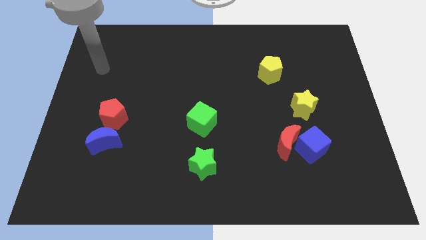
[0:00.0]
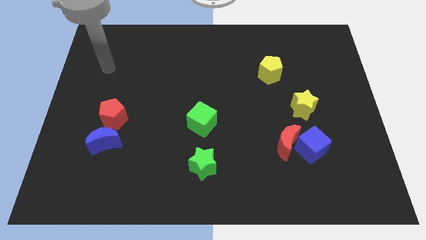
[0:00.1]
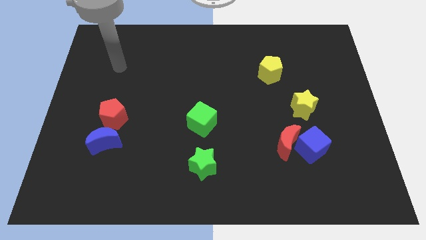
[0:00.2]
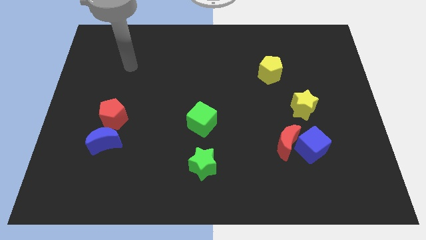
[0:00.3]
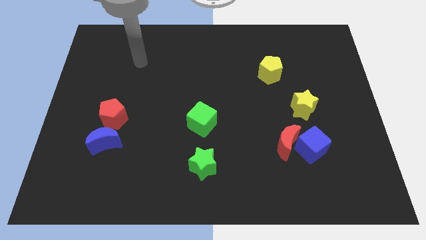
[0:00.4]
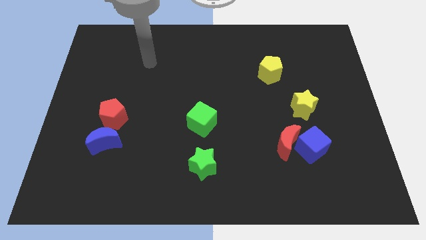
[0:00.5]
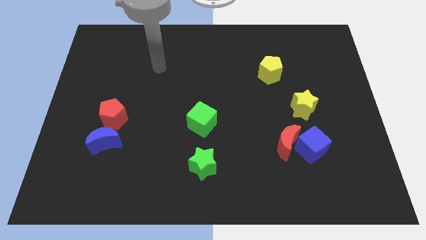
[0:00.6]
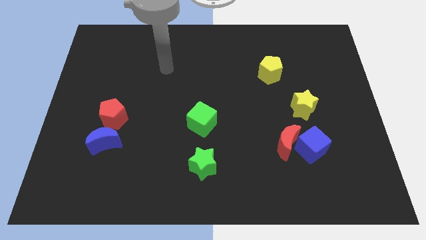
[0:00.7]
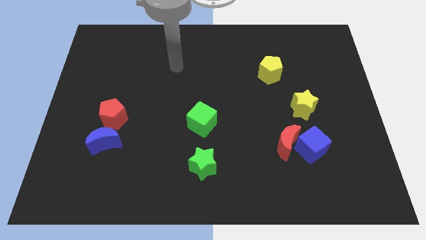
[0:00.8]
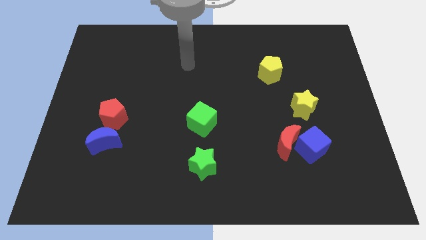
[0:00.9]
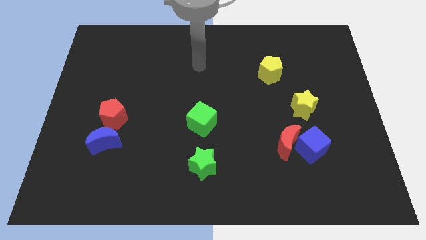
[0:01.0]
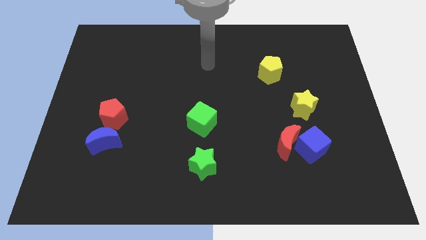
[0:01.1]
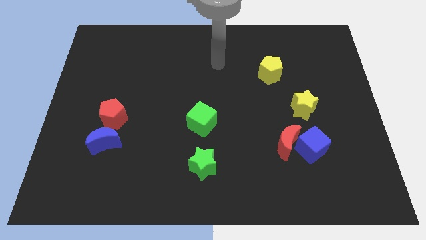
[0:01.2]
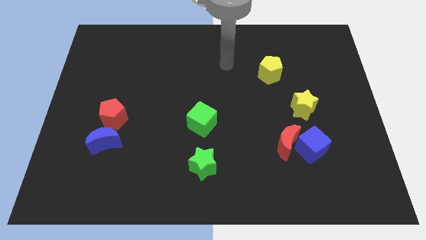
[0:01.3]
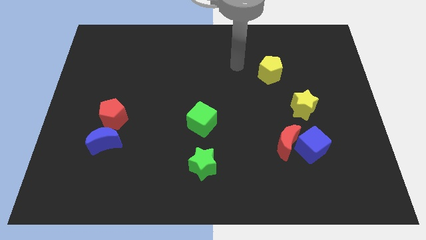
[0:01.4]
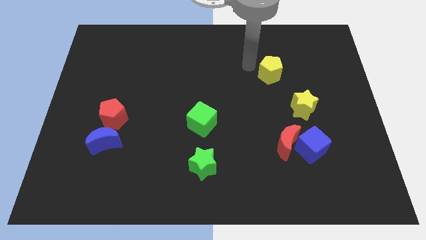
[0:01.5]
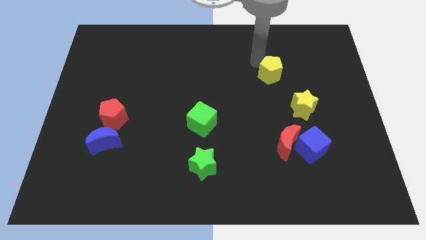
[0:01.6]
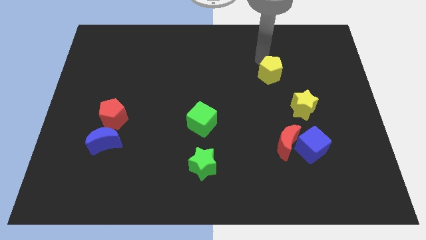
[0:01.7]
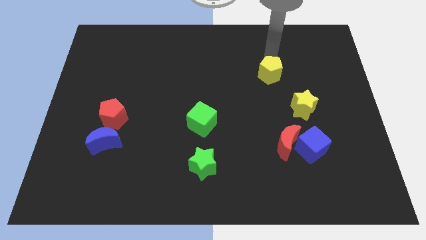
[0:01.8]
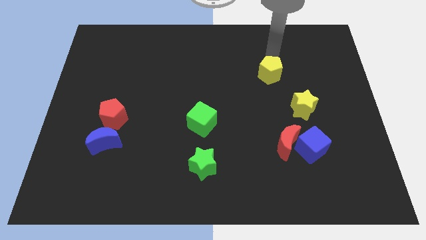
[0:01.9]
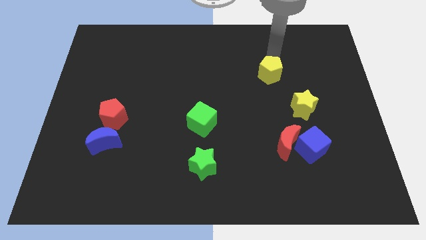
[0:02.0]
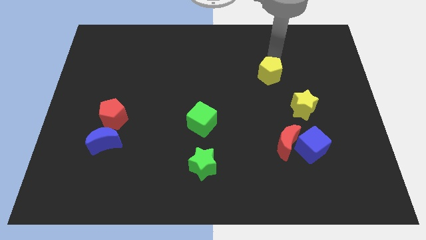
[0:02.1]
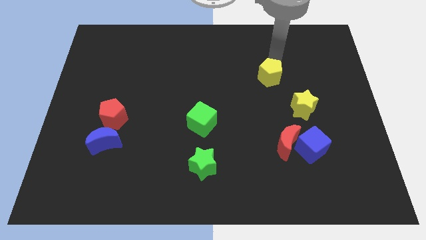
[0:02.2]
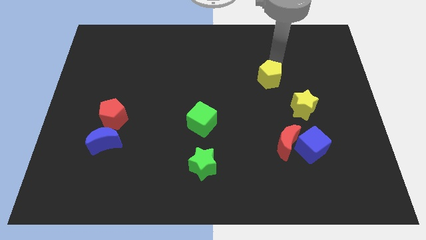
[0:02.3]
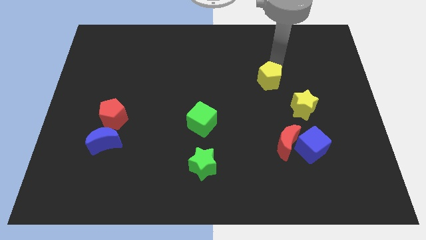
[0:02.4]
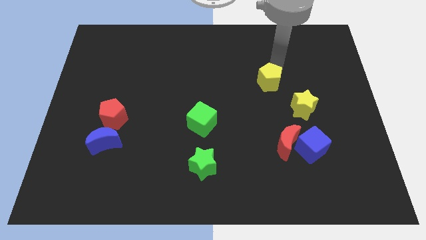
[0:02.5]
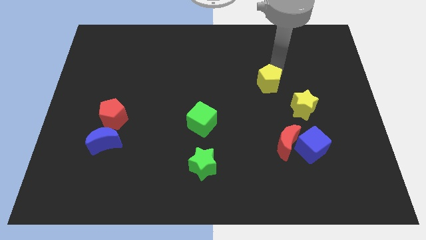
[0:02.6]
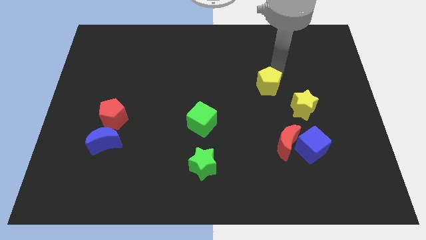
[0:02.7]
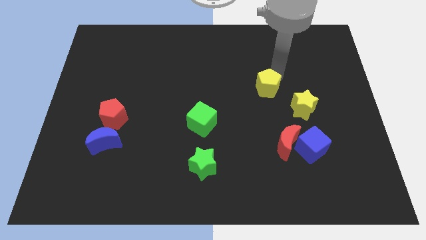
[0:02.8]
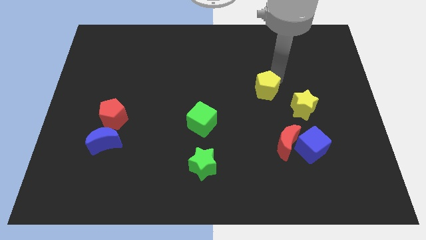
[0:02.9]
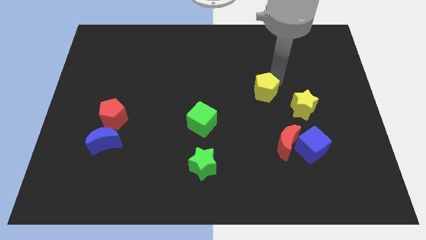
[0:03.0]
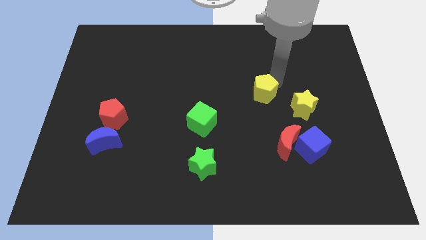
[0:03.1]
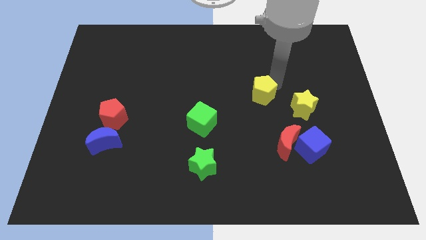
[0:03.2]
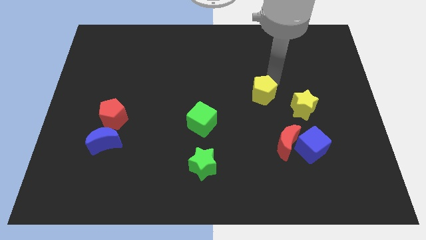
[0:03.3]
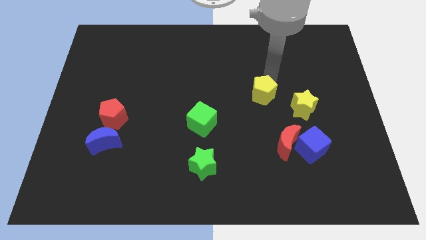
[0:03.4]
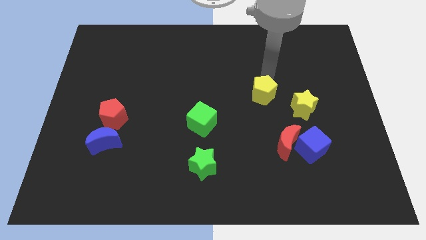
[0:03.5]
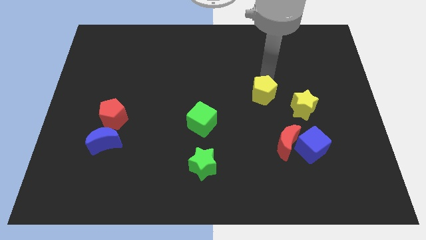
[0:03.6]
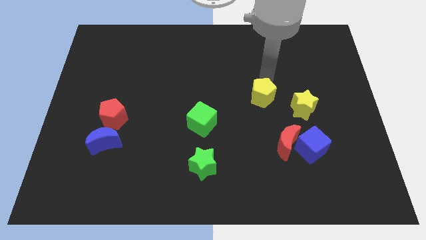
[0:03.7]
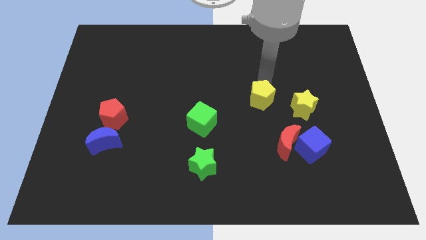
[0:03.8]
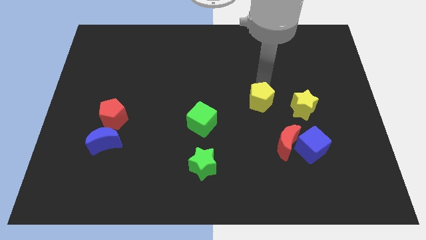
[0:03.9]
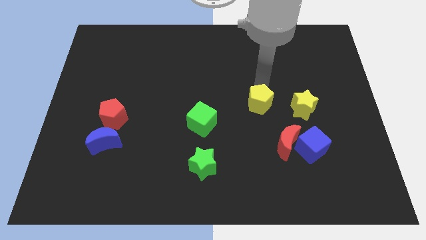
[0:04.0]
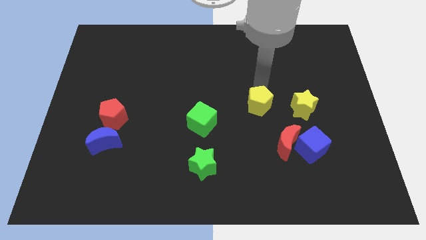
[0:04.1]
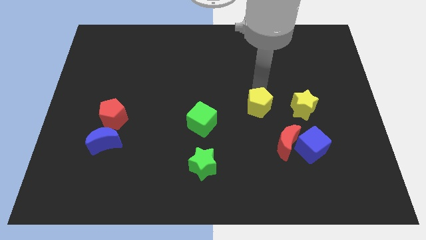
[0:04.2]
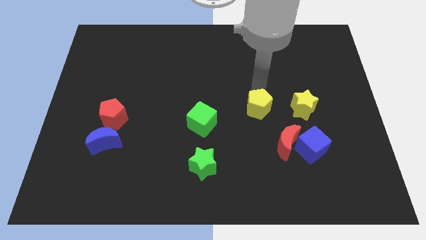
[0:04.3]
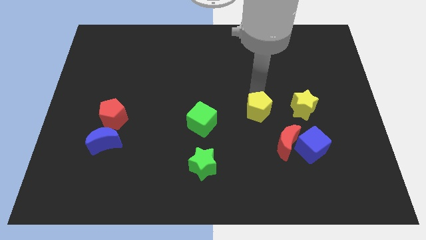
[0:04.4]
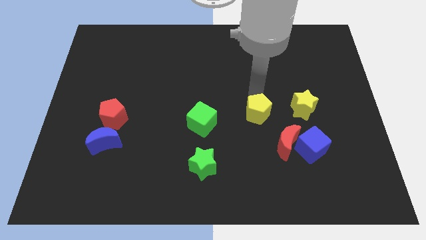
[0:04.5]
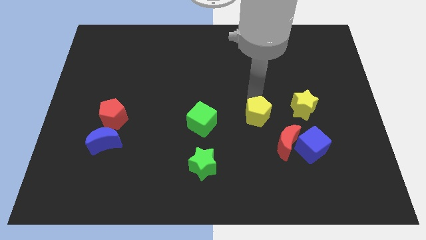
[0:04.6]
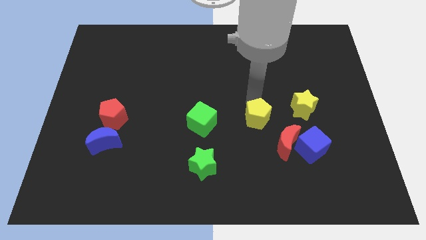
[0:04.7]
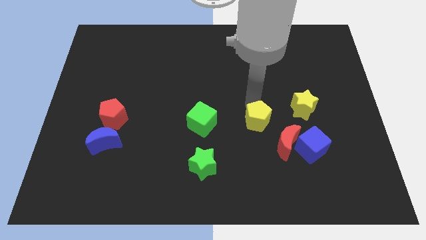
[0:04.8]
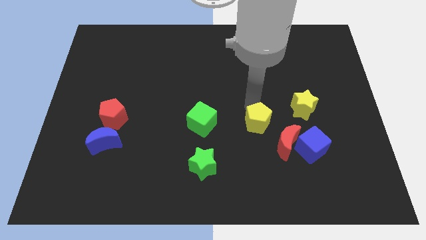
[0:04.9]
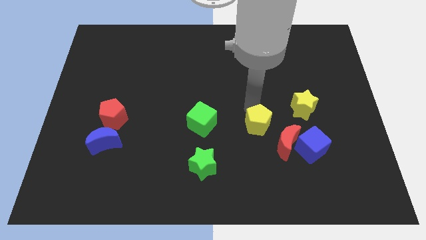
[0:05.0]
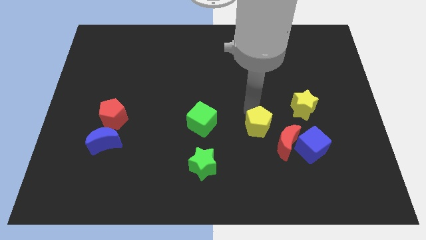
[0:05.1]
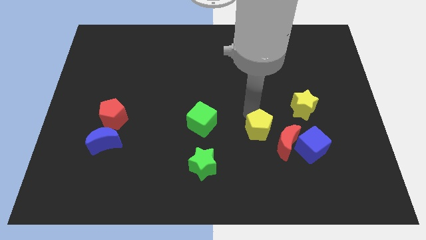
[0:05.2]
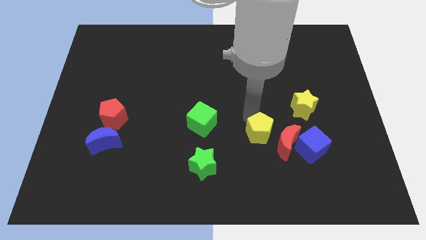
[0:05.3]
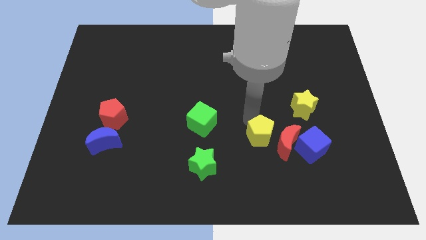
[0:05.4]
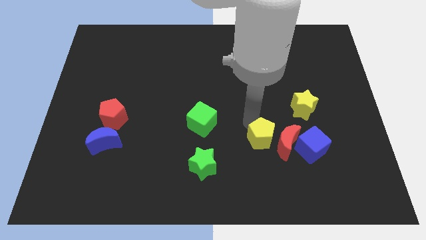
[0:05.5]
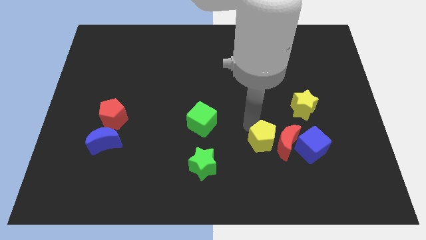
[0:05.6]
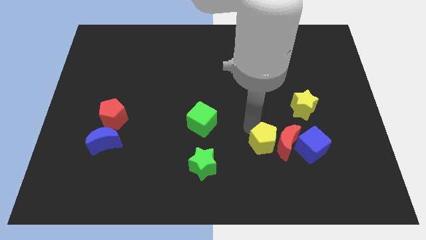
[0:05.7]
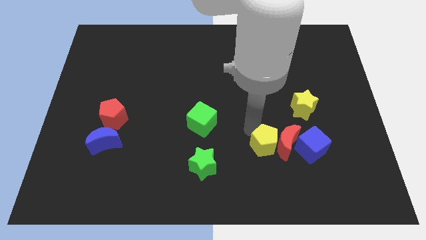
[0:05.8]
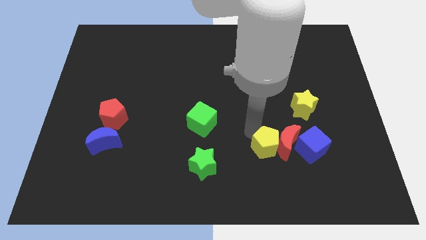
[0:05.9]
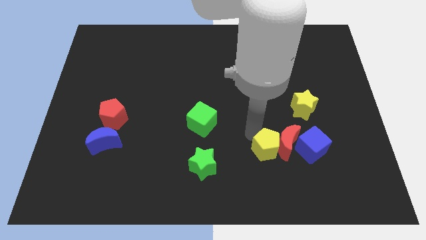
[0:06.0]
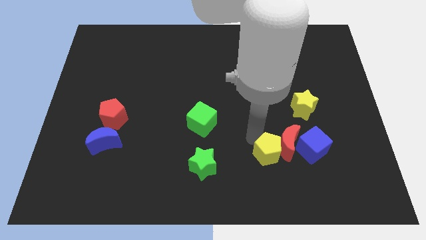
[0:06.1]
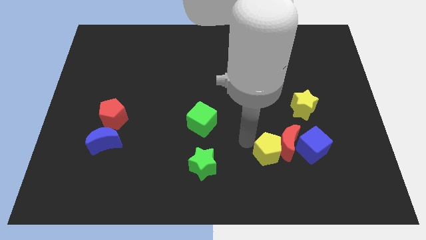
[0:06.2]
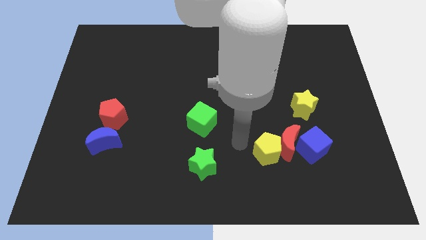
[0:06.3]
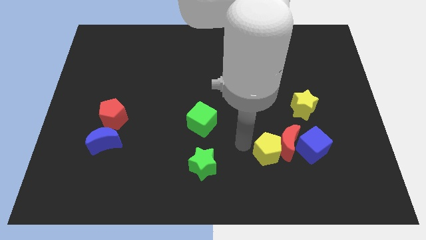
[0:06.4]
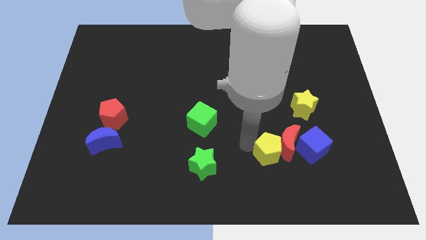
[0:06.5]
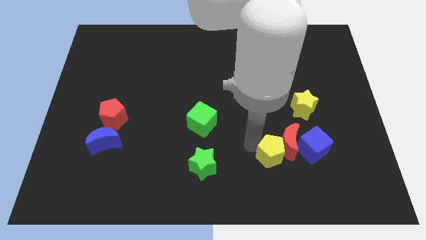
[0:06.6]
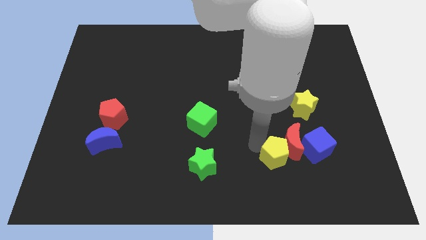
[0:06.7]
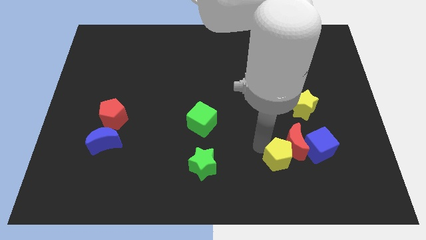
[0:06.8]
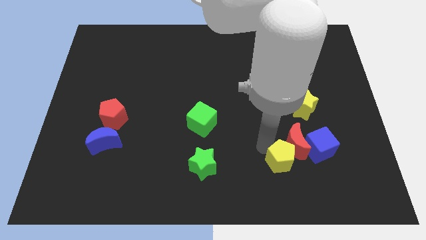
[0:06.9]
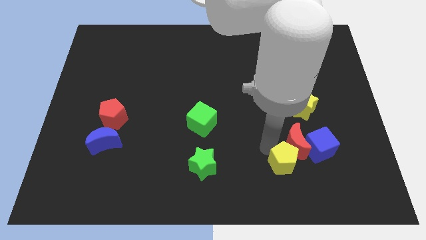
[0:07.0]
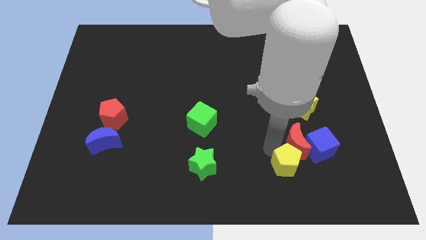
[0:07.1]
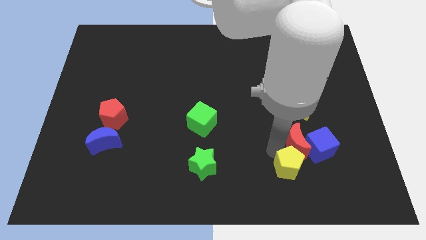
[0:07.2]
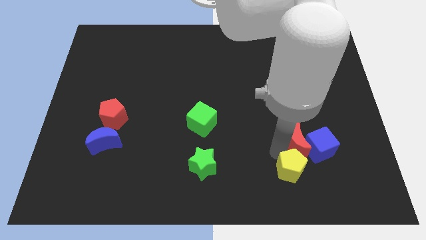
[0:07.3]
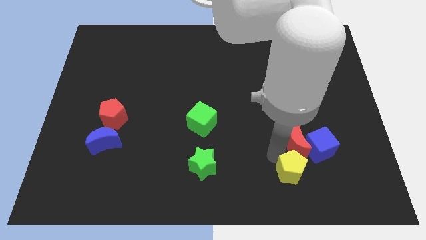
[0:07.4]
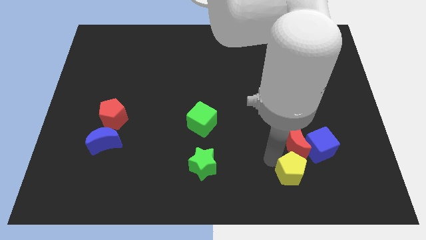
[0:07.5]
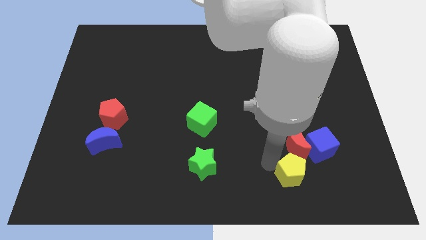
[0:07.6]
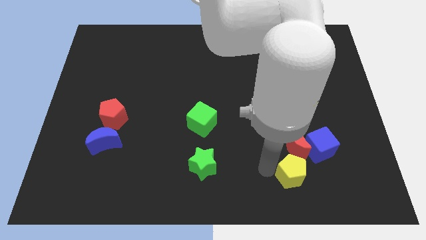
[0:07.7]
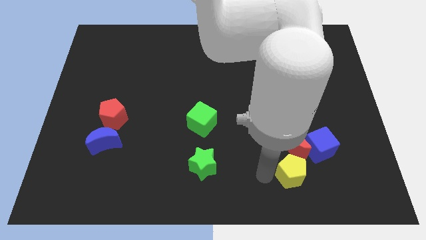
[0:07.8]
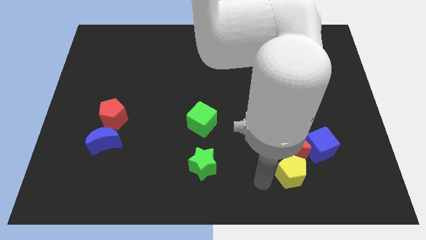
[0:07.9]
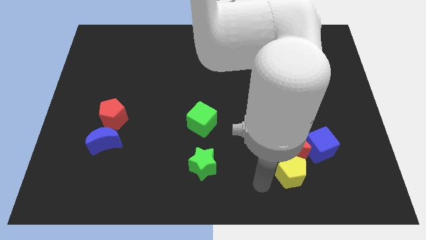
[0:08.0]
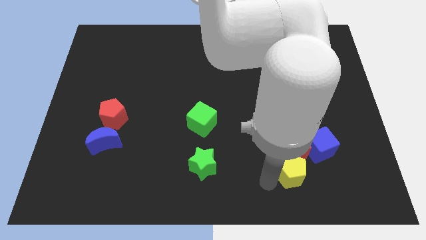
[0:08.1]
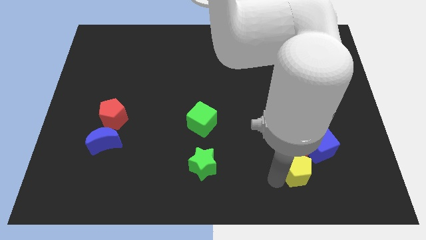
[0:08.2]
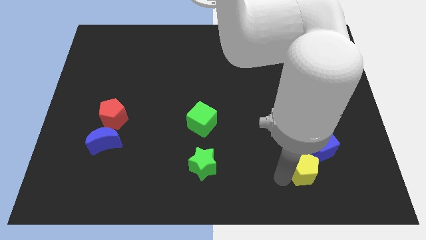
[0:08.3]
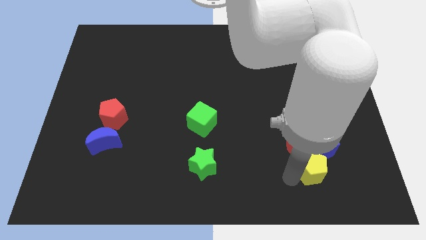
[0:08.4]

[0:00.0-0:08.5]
put the yellow pentagon below the yellow star
